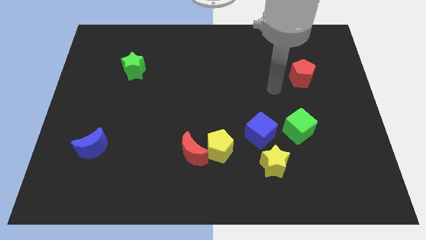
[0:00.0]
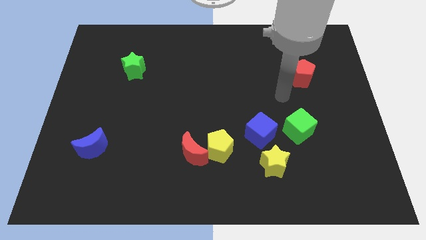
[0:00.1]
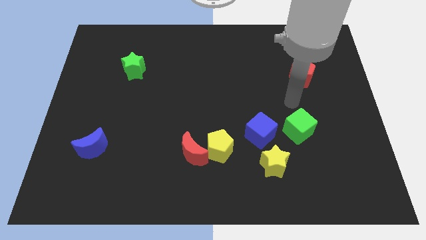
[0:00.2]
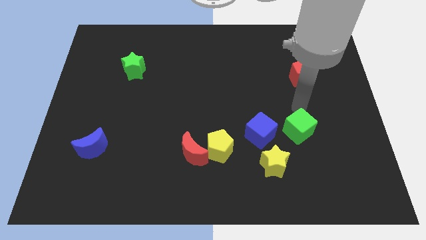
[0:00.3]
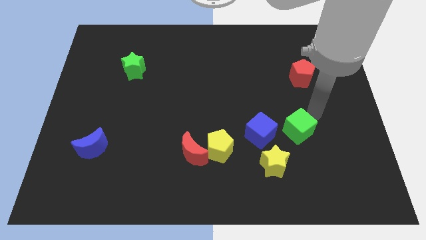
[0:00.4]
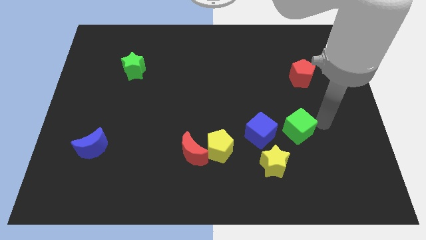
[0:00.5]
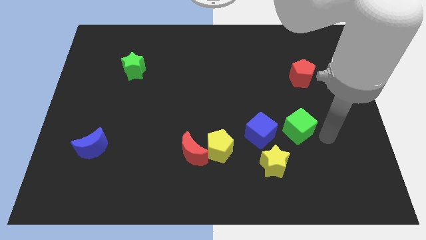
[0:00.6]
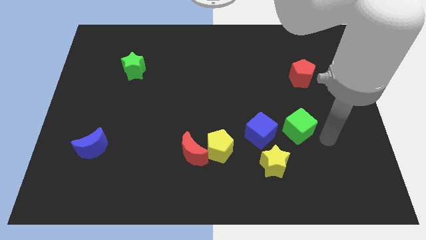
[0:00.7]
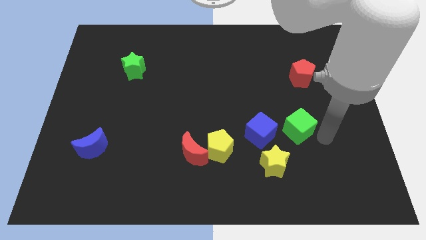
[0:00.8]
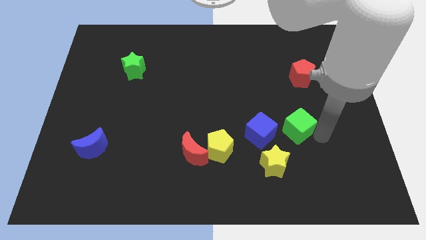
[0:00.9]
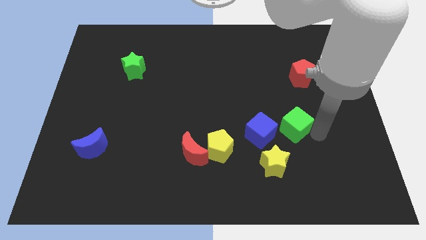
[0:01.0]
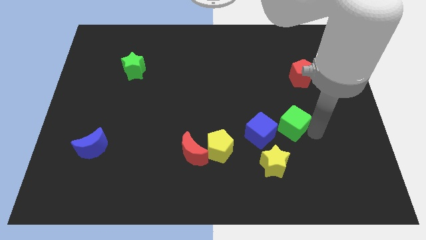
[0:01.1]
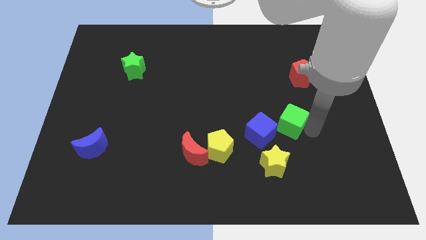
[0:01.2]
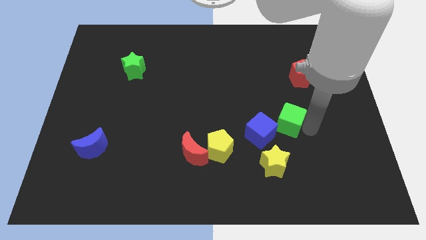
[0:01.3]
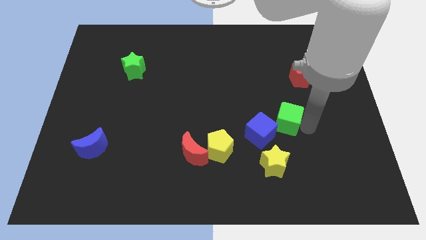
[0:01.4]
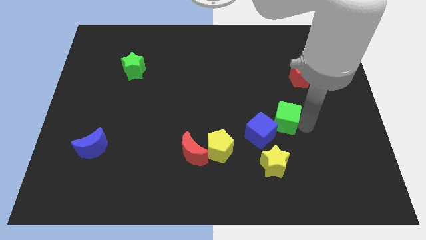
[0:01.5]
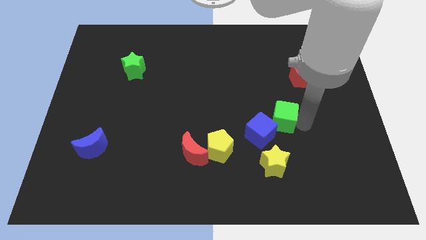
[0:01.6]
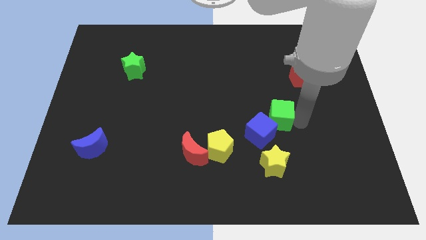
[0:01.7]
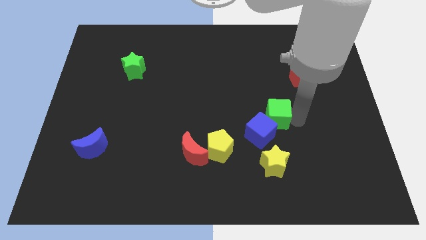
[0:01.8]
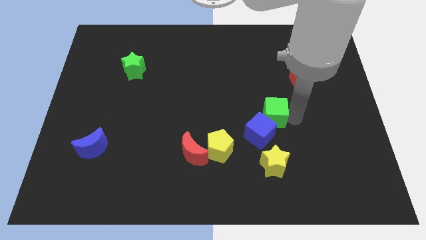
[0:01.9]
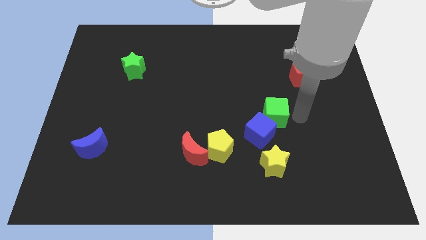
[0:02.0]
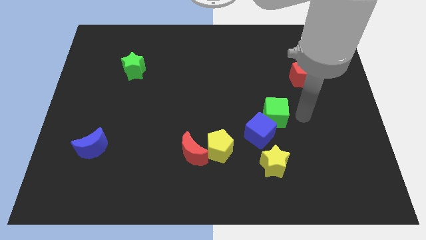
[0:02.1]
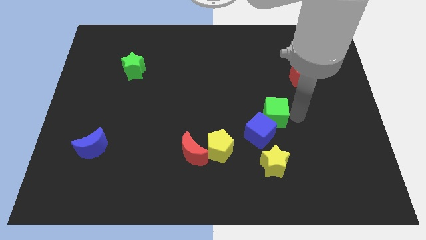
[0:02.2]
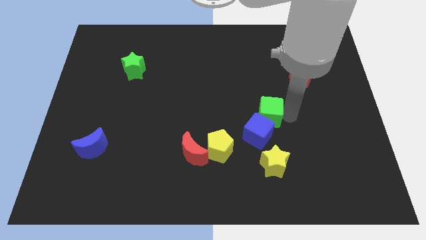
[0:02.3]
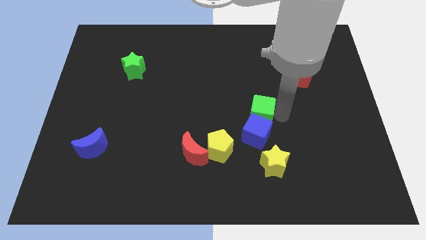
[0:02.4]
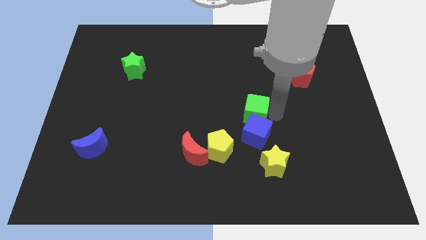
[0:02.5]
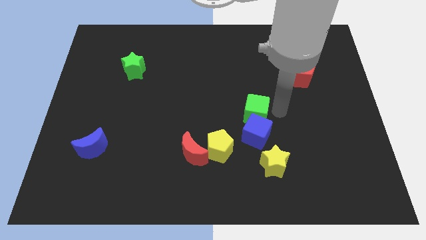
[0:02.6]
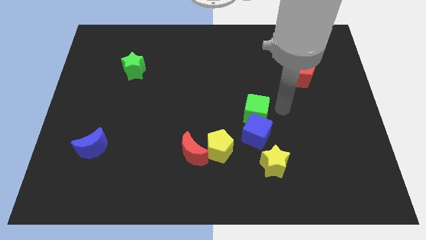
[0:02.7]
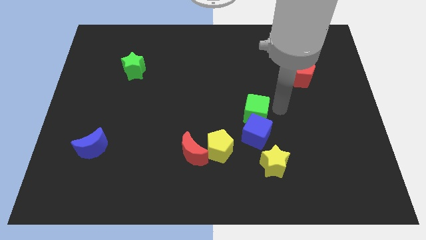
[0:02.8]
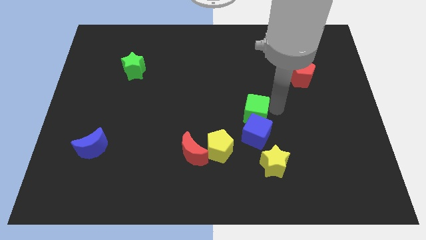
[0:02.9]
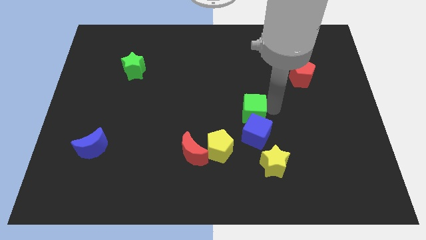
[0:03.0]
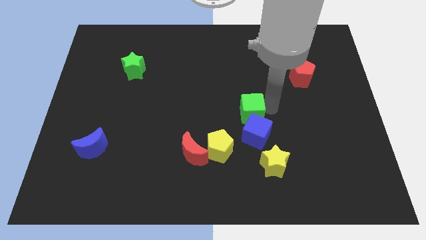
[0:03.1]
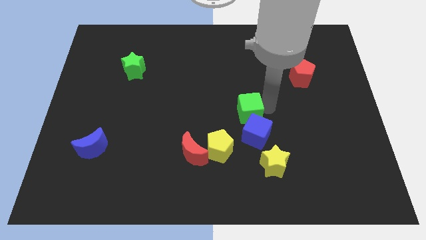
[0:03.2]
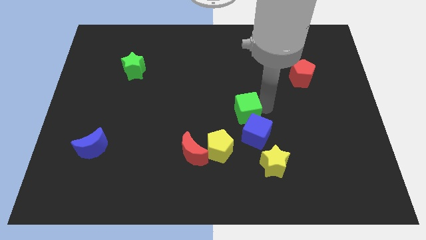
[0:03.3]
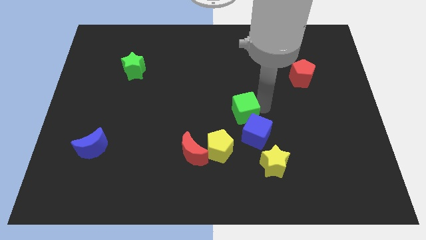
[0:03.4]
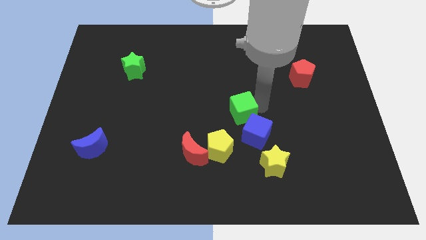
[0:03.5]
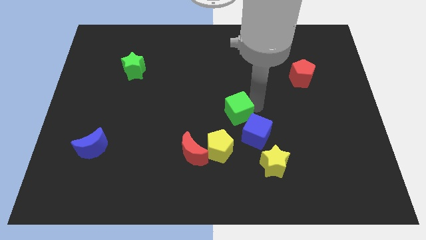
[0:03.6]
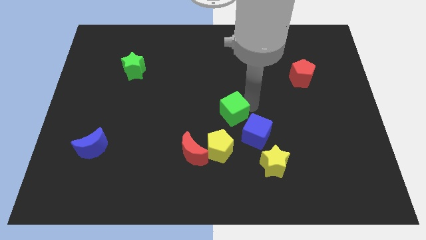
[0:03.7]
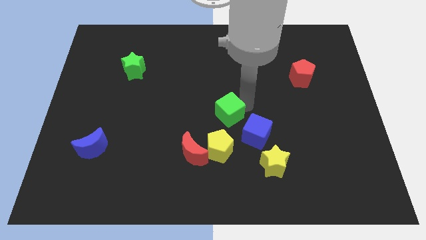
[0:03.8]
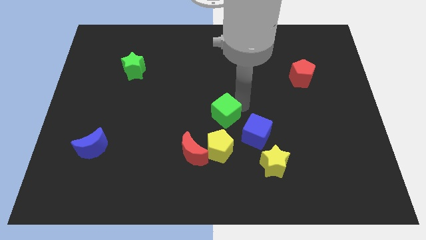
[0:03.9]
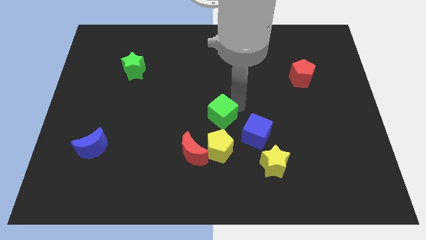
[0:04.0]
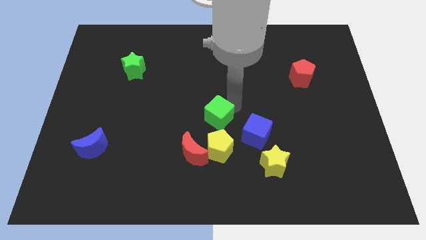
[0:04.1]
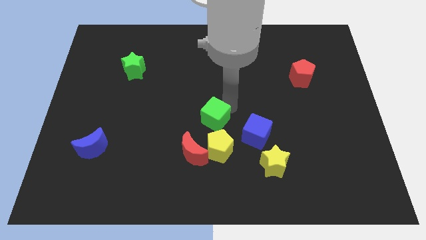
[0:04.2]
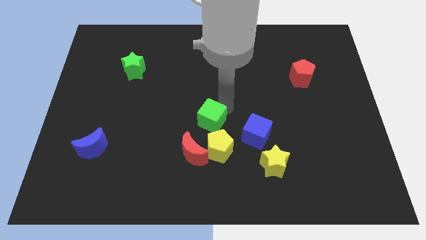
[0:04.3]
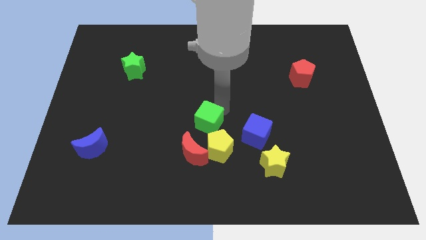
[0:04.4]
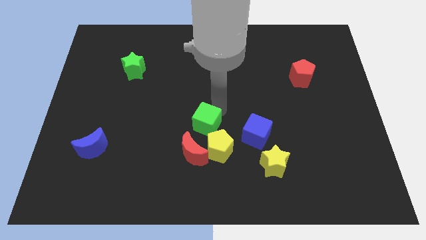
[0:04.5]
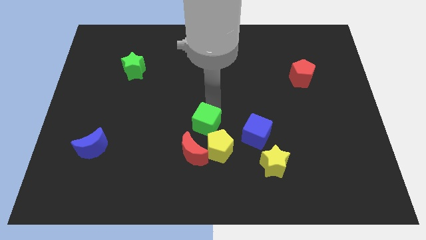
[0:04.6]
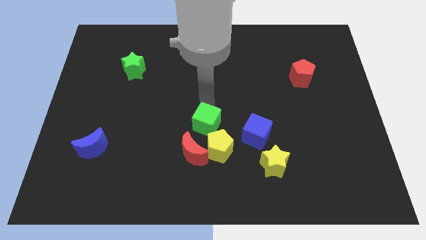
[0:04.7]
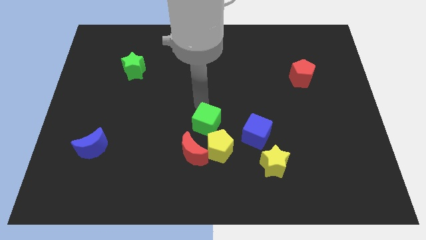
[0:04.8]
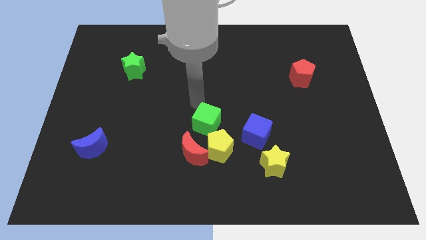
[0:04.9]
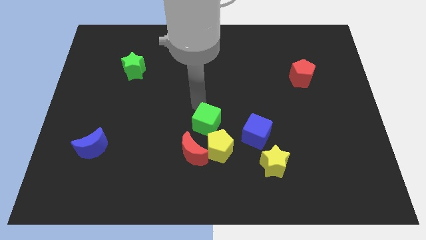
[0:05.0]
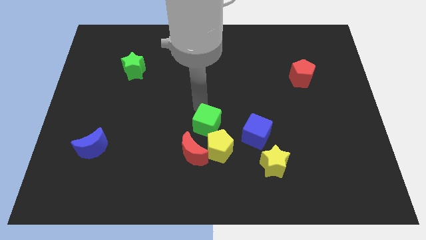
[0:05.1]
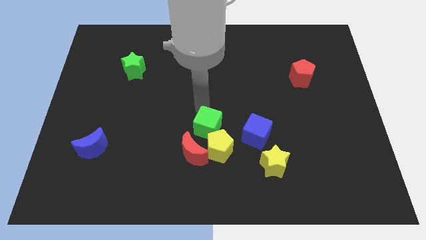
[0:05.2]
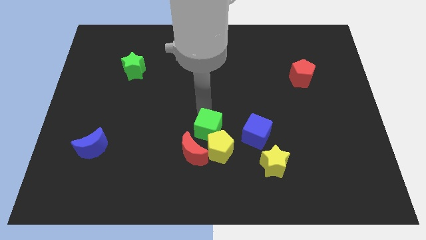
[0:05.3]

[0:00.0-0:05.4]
move the green cube close to the yellow pentagon

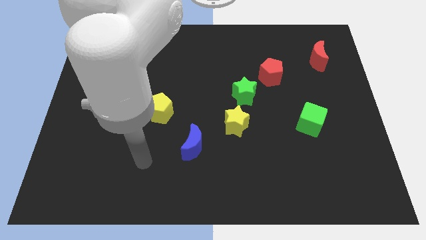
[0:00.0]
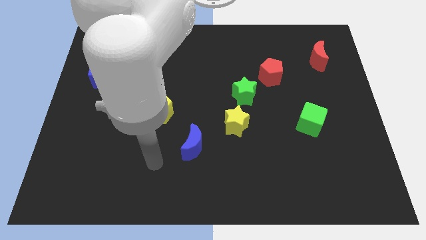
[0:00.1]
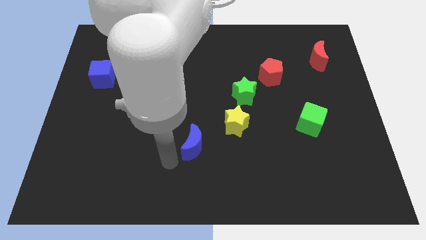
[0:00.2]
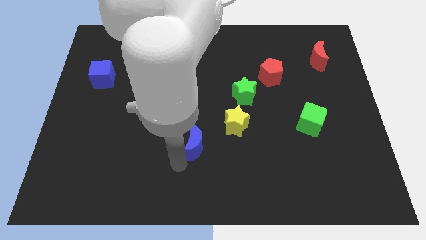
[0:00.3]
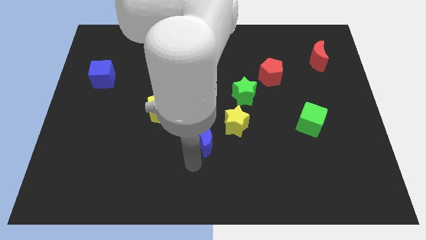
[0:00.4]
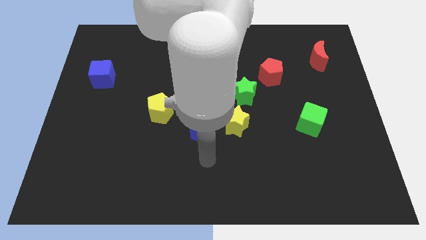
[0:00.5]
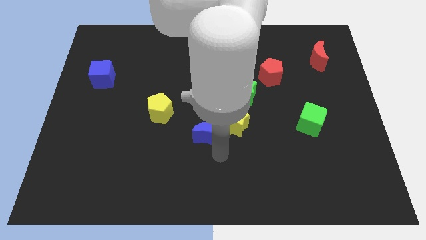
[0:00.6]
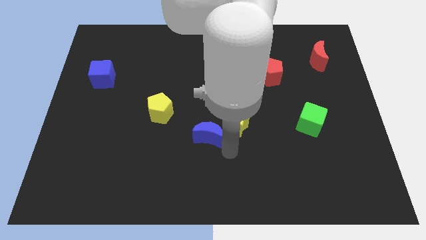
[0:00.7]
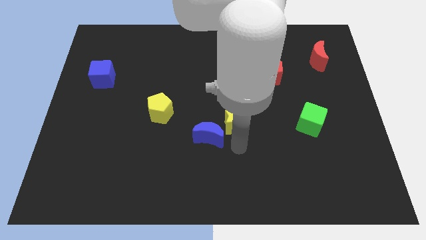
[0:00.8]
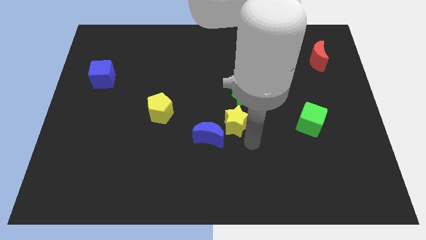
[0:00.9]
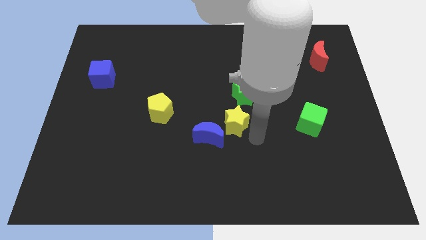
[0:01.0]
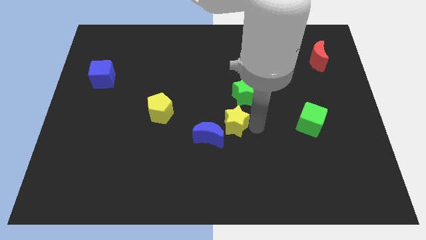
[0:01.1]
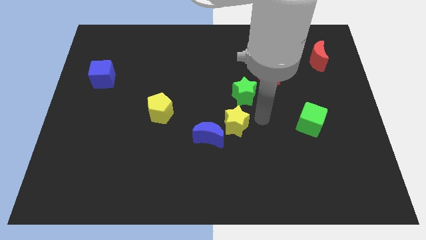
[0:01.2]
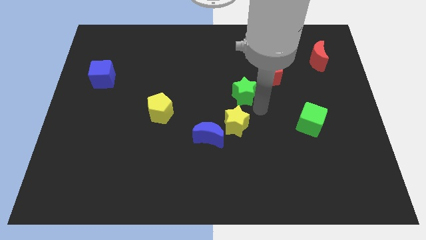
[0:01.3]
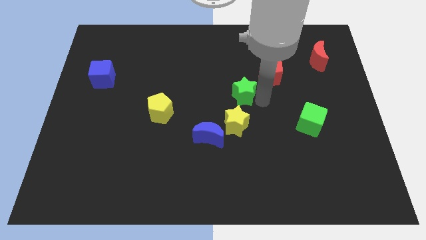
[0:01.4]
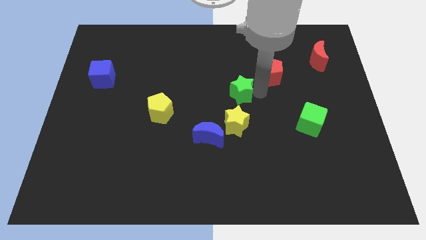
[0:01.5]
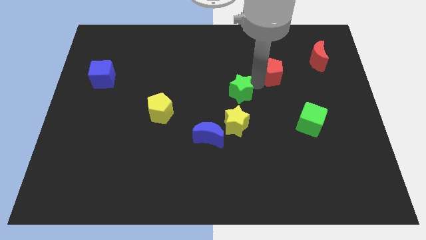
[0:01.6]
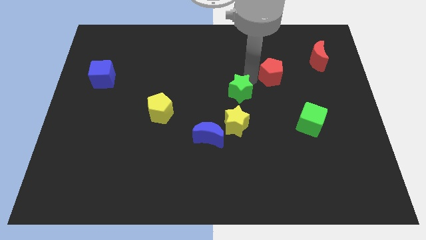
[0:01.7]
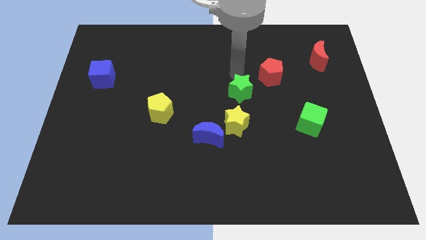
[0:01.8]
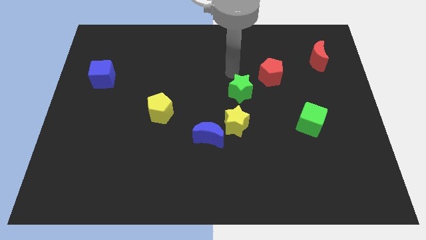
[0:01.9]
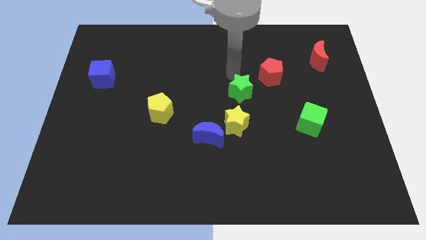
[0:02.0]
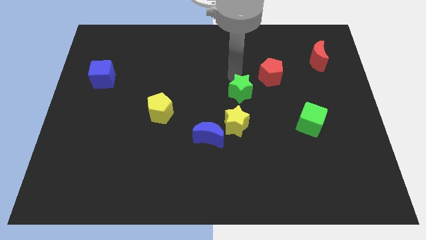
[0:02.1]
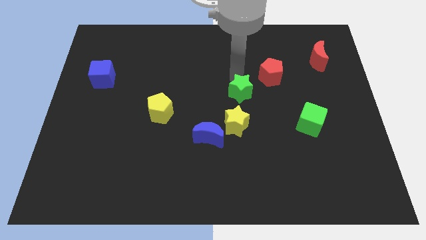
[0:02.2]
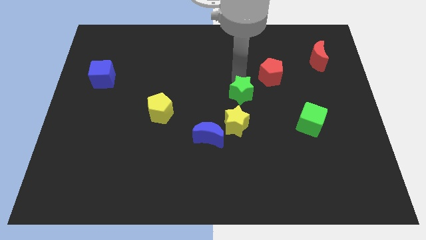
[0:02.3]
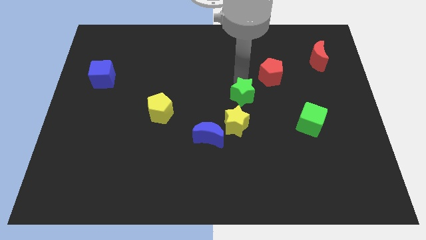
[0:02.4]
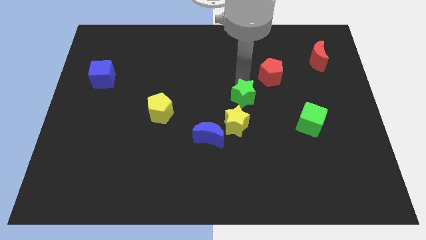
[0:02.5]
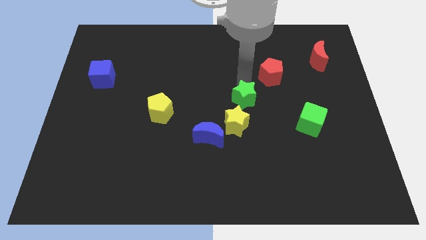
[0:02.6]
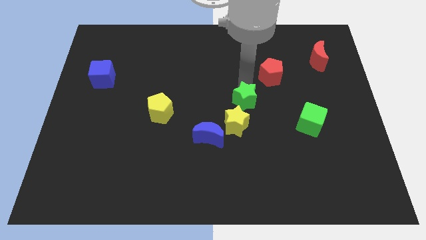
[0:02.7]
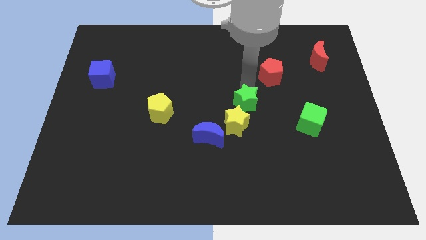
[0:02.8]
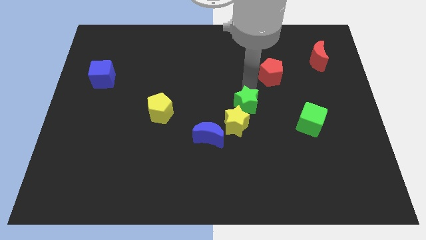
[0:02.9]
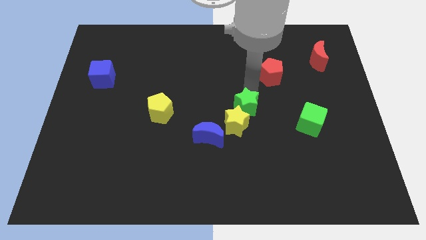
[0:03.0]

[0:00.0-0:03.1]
put the green star close to the yellow star
